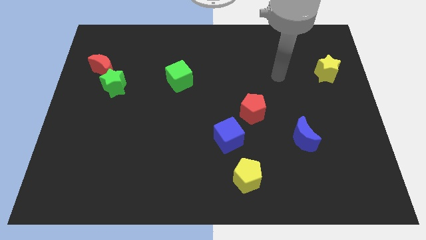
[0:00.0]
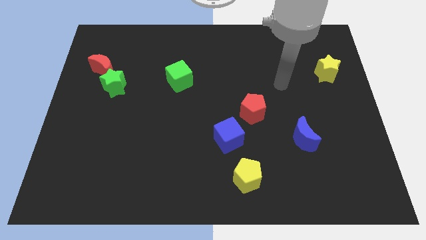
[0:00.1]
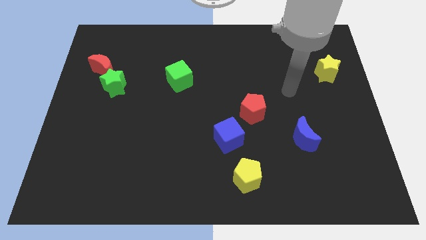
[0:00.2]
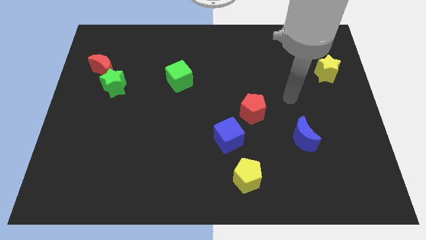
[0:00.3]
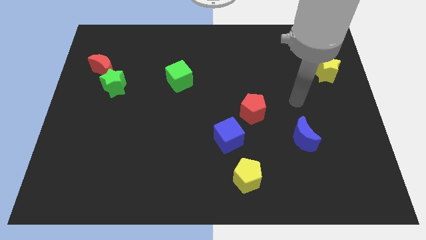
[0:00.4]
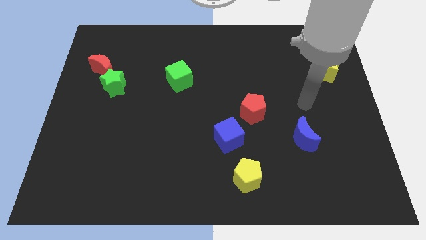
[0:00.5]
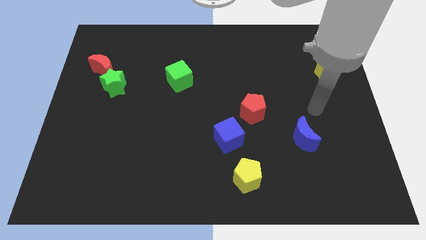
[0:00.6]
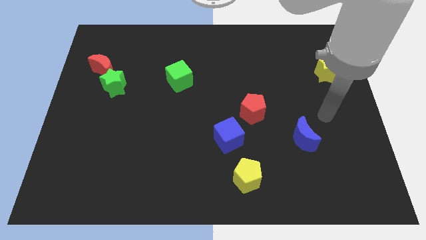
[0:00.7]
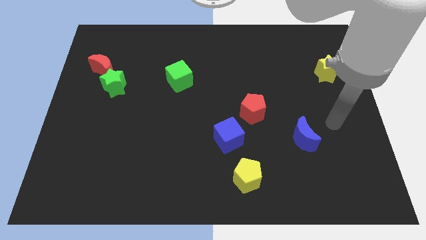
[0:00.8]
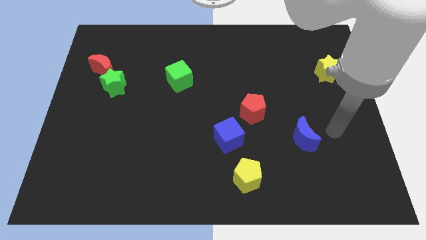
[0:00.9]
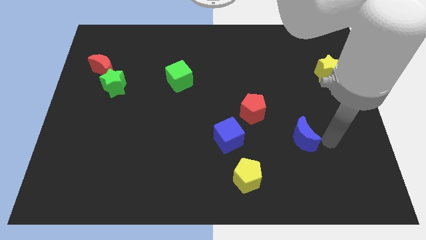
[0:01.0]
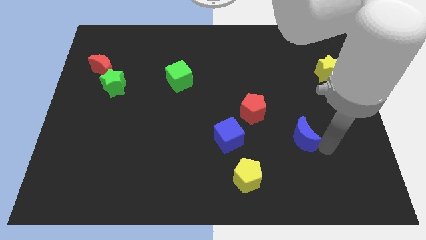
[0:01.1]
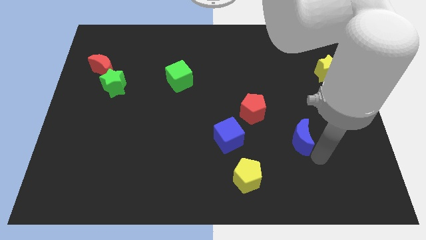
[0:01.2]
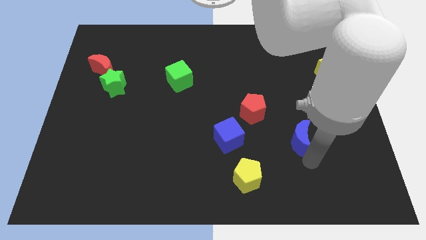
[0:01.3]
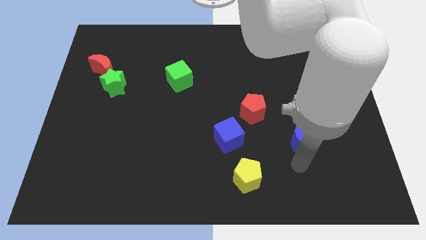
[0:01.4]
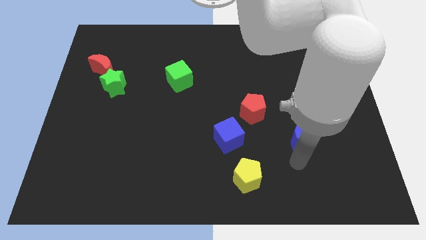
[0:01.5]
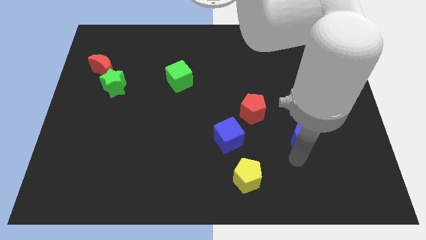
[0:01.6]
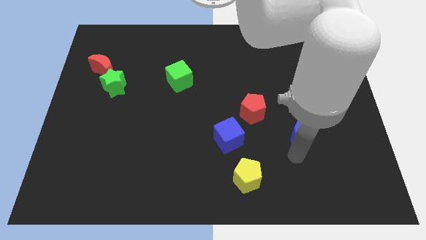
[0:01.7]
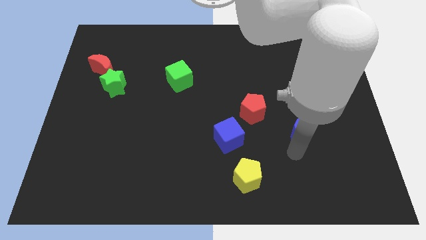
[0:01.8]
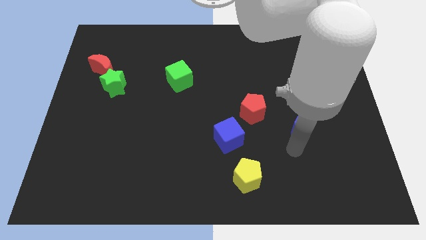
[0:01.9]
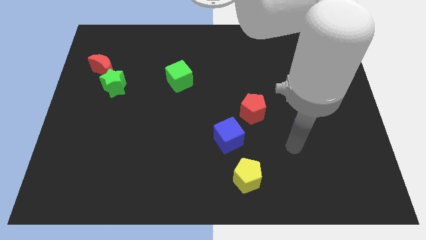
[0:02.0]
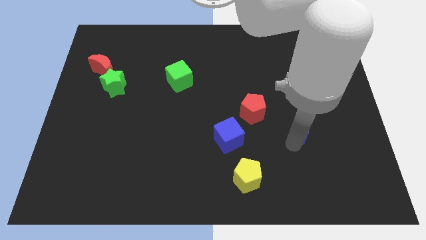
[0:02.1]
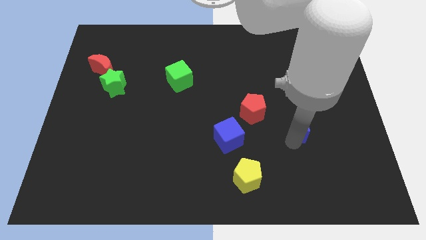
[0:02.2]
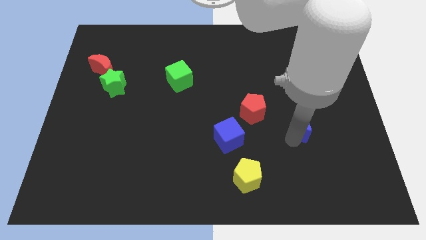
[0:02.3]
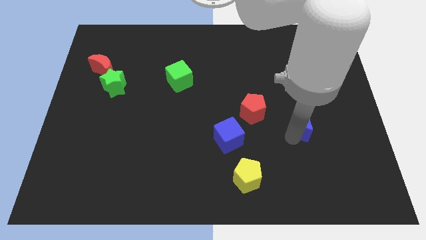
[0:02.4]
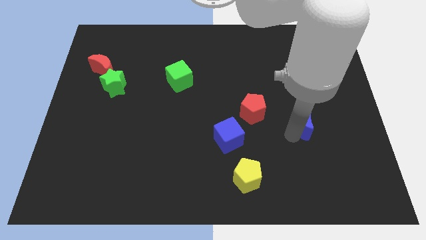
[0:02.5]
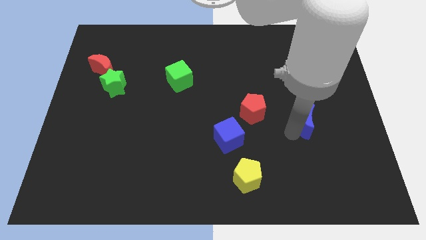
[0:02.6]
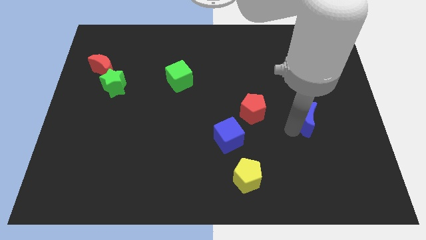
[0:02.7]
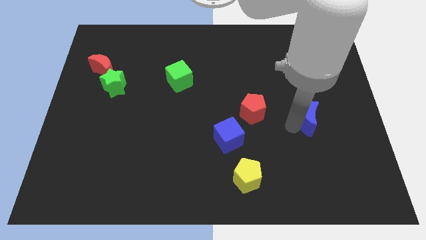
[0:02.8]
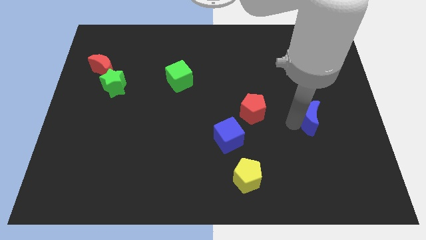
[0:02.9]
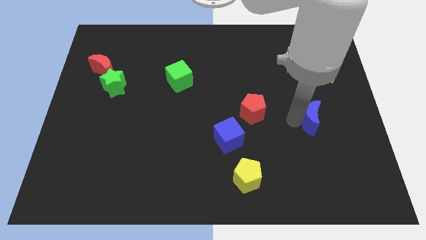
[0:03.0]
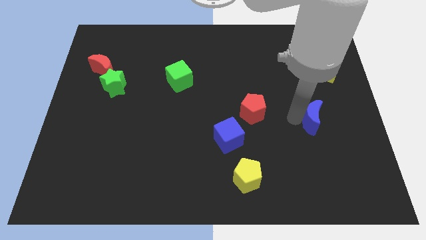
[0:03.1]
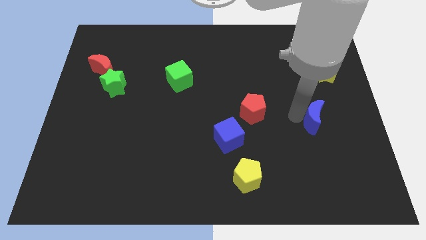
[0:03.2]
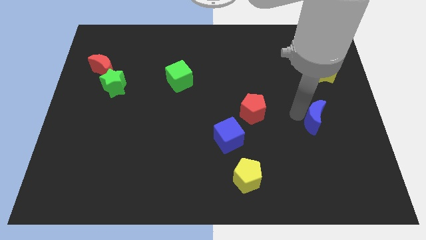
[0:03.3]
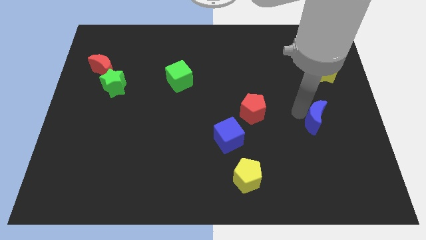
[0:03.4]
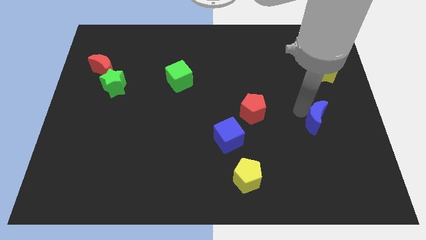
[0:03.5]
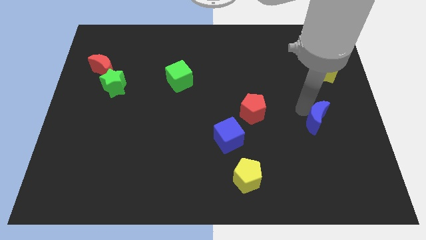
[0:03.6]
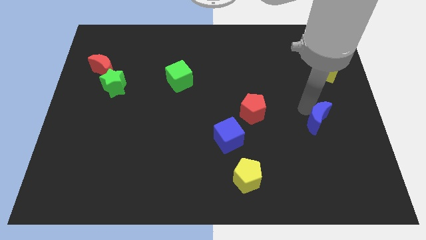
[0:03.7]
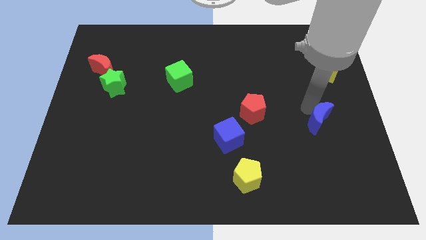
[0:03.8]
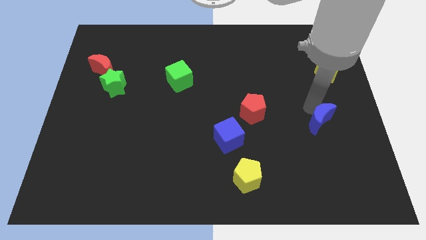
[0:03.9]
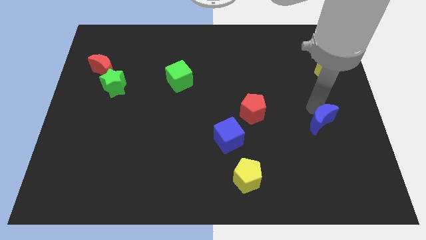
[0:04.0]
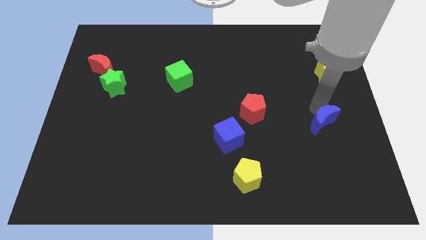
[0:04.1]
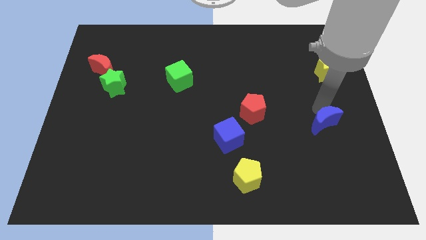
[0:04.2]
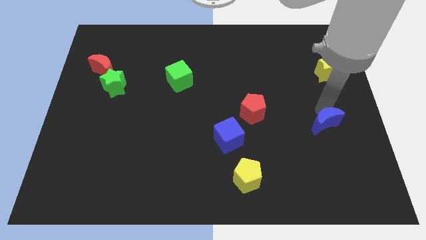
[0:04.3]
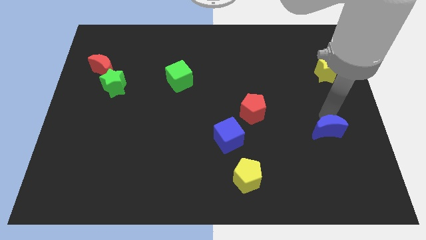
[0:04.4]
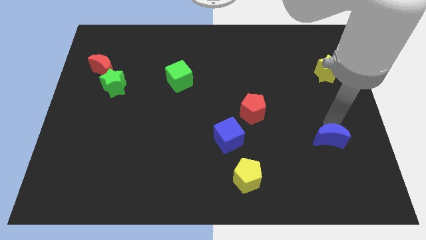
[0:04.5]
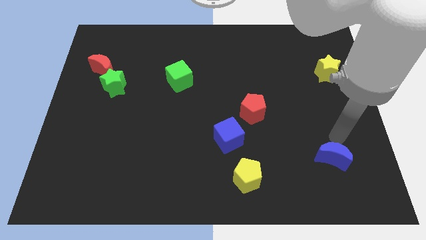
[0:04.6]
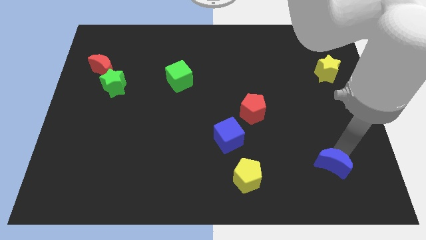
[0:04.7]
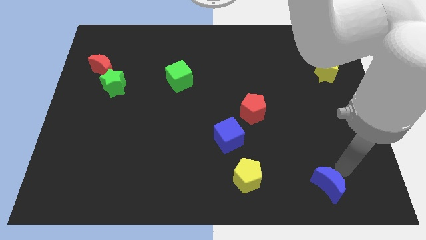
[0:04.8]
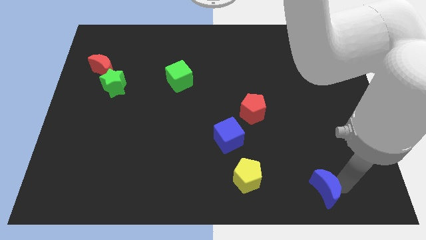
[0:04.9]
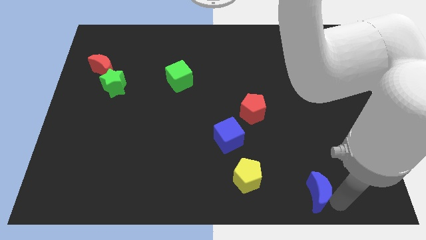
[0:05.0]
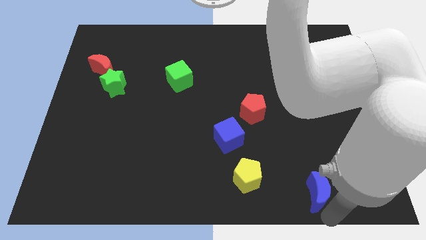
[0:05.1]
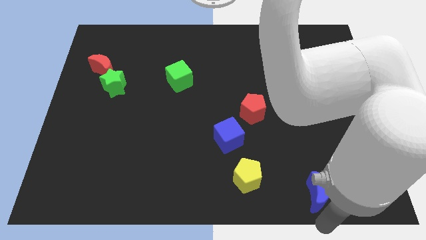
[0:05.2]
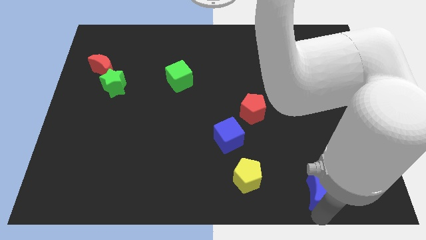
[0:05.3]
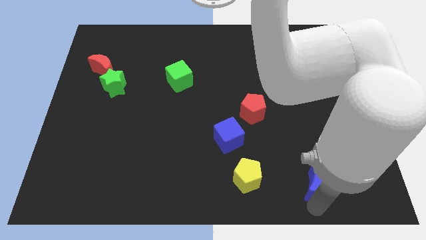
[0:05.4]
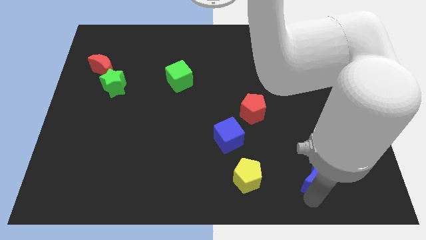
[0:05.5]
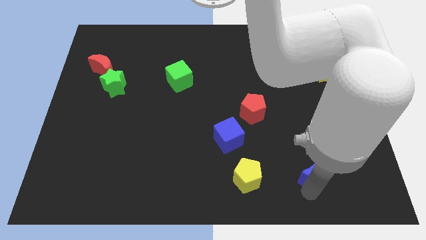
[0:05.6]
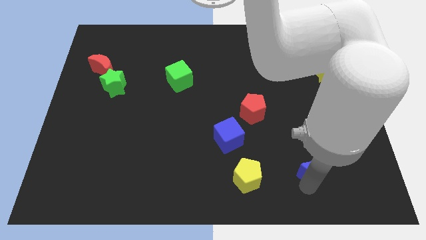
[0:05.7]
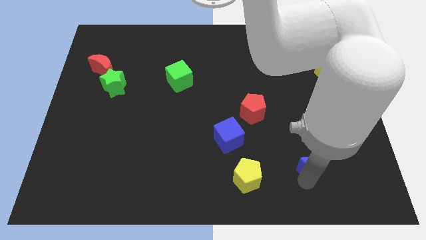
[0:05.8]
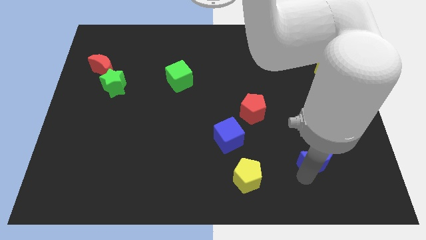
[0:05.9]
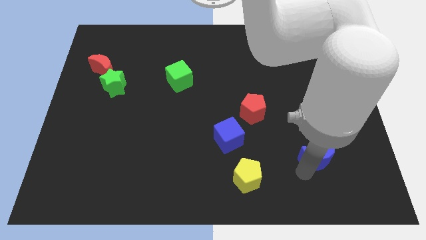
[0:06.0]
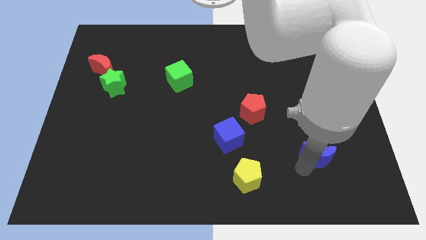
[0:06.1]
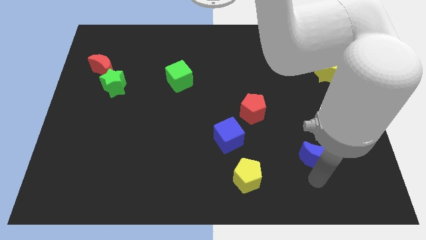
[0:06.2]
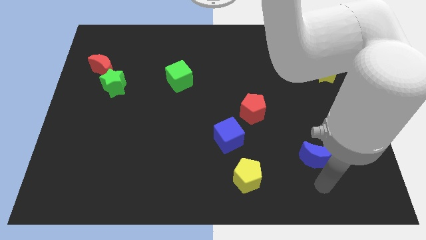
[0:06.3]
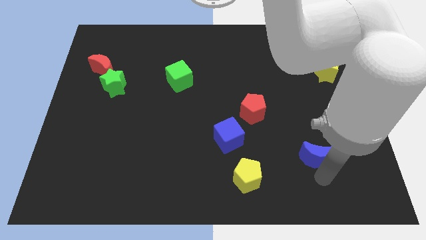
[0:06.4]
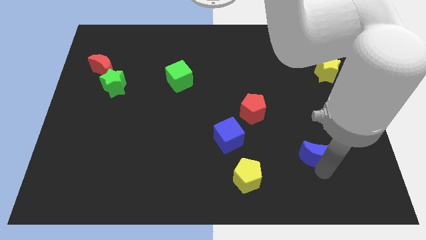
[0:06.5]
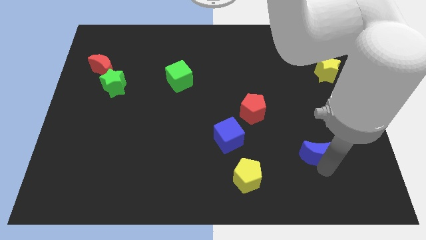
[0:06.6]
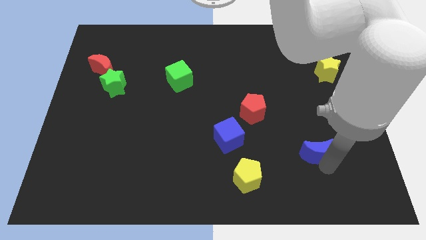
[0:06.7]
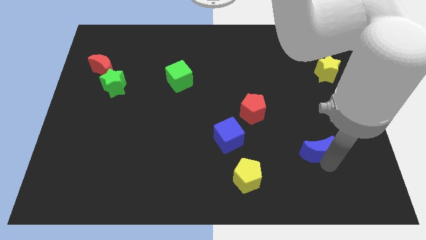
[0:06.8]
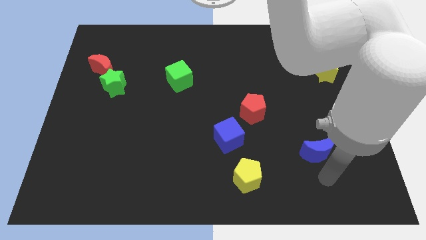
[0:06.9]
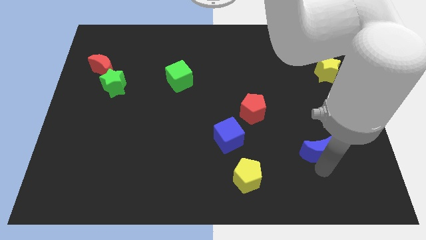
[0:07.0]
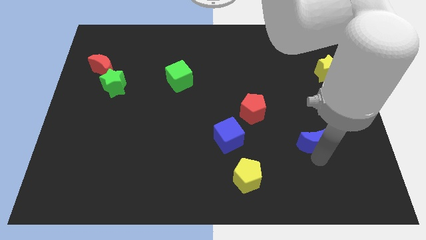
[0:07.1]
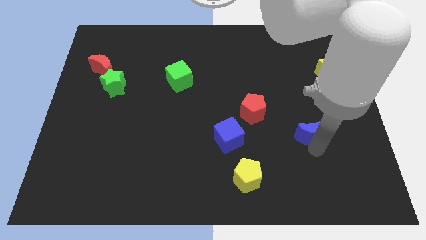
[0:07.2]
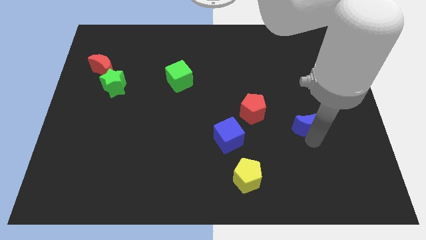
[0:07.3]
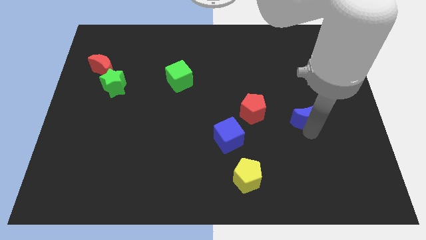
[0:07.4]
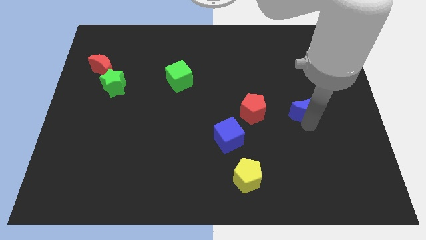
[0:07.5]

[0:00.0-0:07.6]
slightly slide the blue moon up

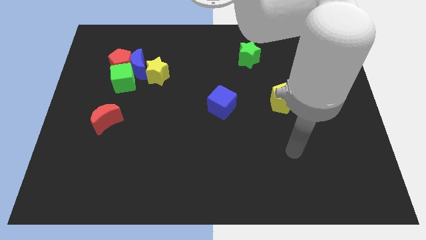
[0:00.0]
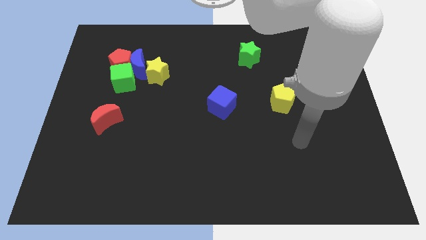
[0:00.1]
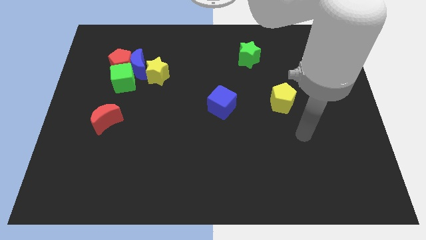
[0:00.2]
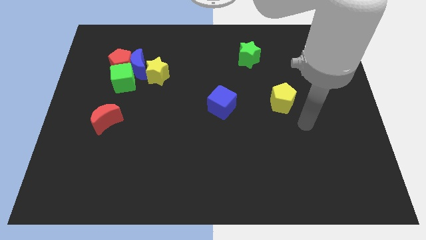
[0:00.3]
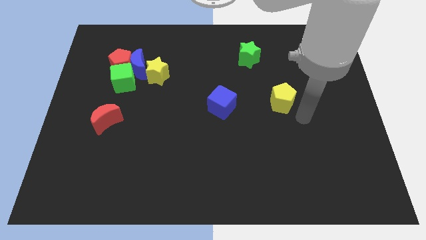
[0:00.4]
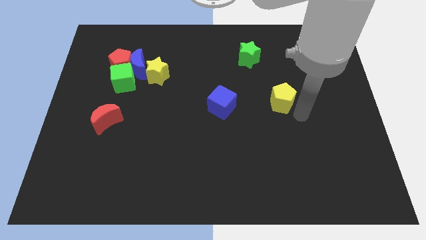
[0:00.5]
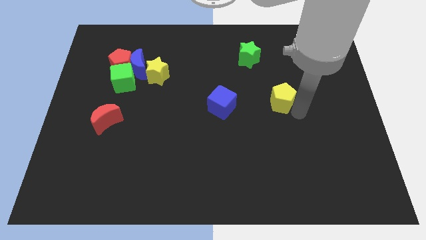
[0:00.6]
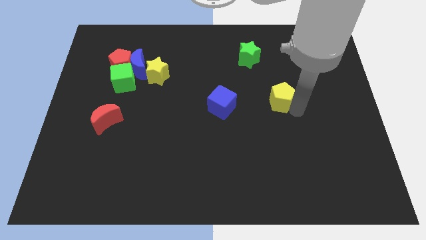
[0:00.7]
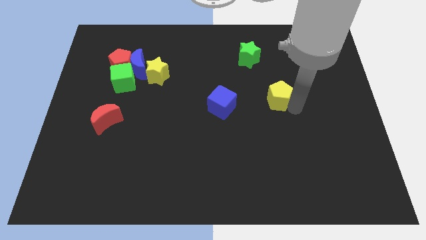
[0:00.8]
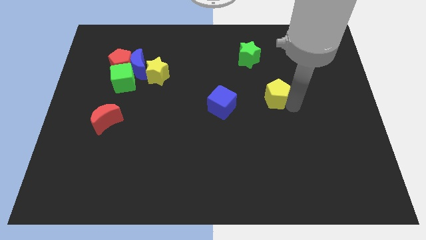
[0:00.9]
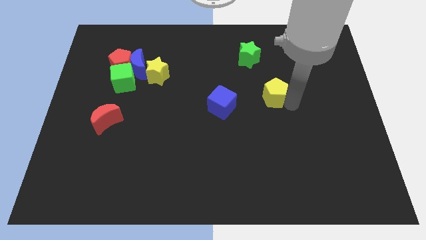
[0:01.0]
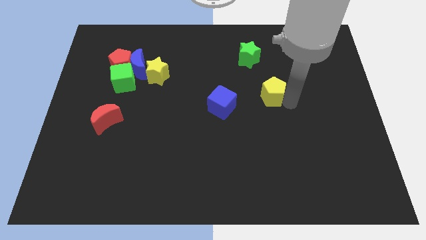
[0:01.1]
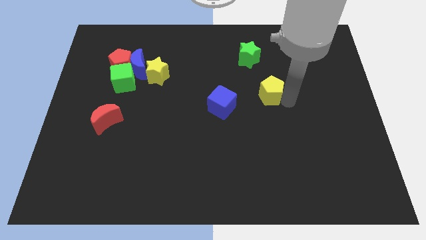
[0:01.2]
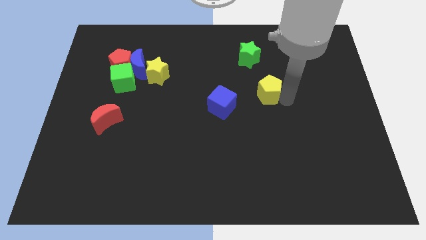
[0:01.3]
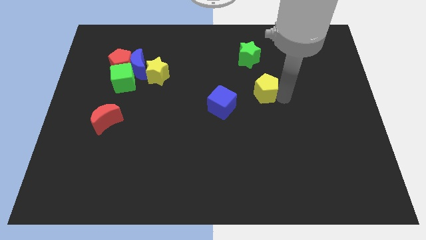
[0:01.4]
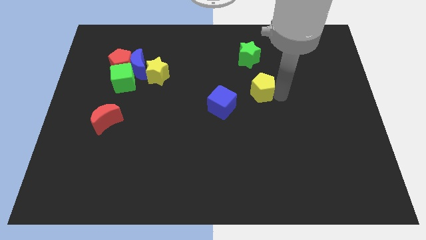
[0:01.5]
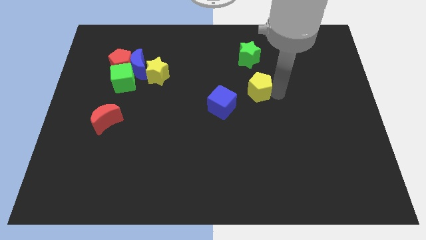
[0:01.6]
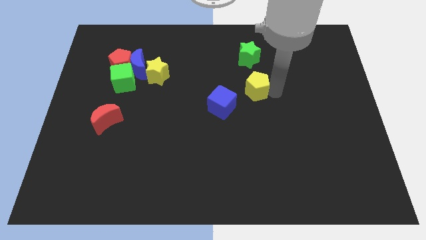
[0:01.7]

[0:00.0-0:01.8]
push the yellow pentagon a little bit diagonally up and to the left
